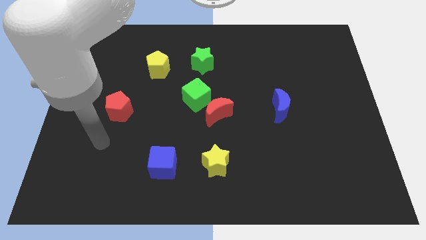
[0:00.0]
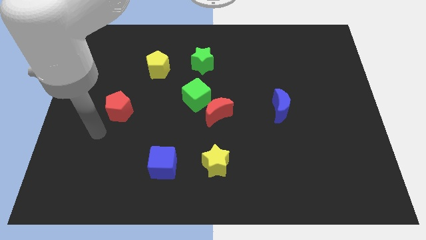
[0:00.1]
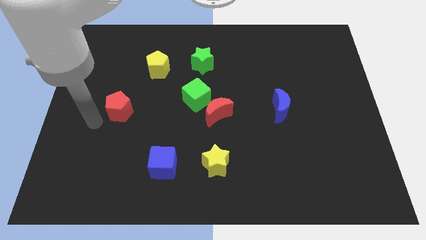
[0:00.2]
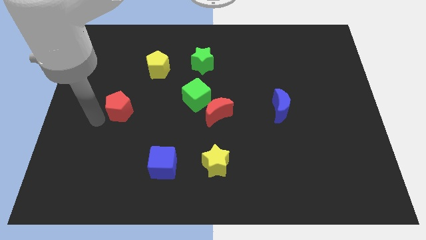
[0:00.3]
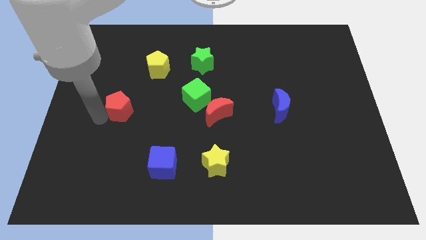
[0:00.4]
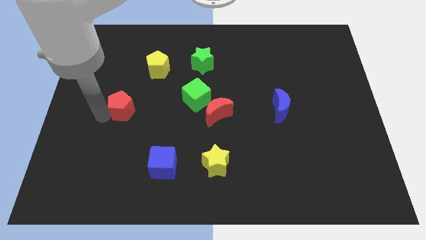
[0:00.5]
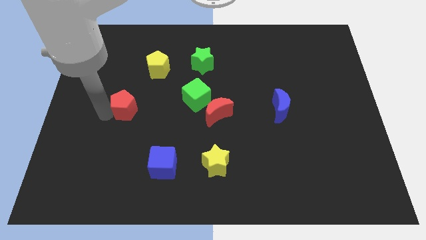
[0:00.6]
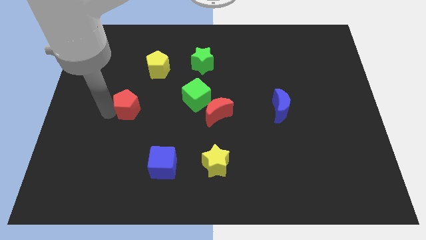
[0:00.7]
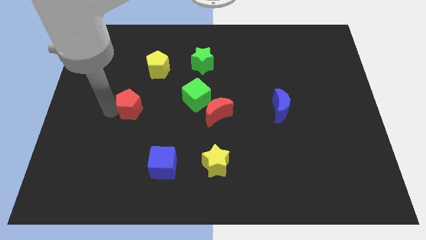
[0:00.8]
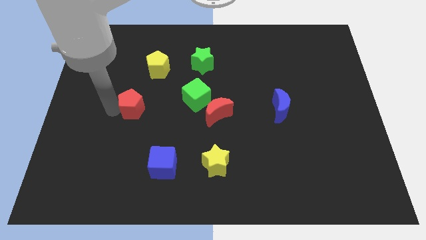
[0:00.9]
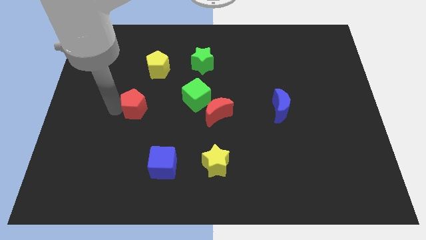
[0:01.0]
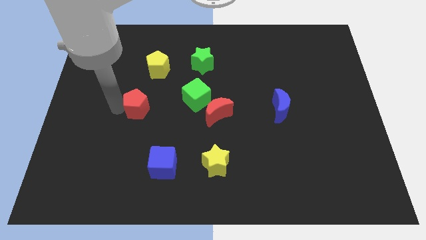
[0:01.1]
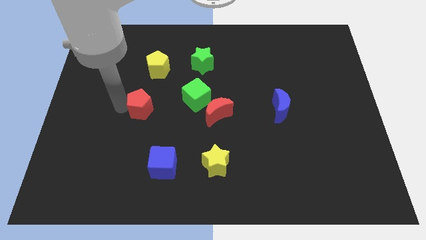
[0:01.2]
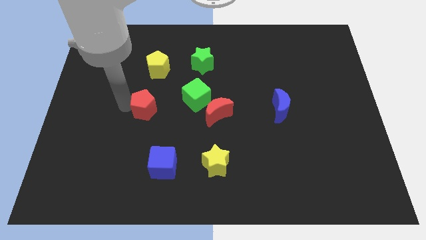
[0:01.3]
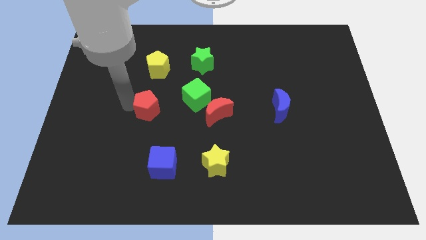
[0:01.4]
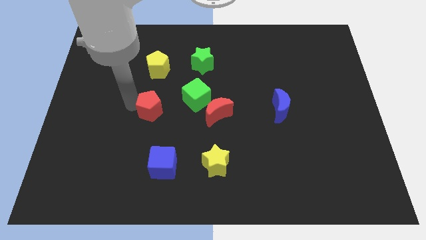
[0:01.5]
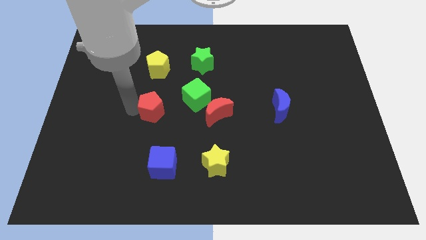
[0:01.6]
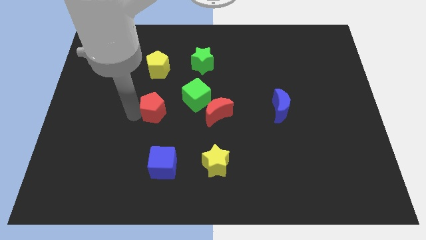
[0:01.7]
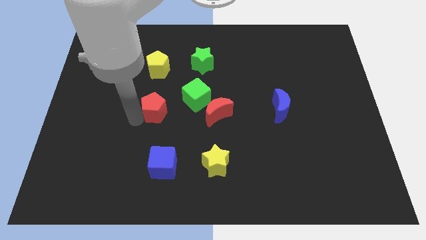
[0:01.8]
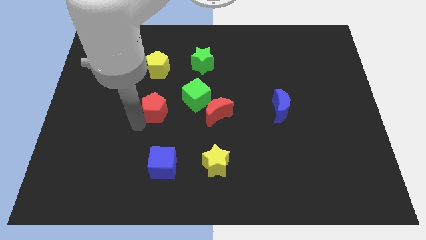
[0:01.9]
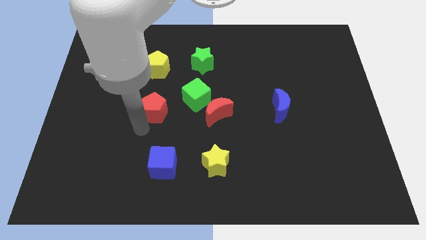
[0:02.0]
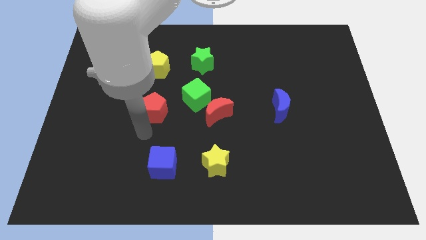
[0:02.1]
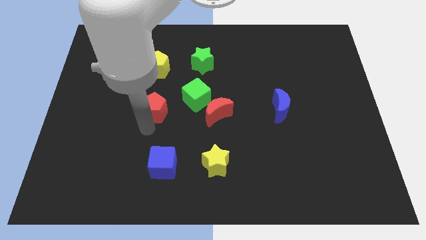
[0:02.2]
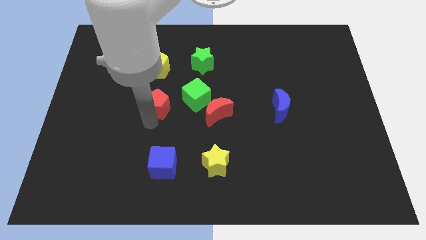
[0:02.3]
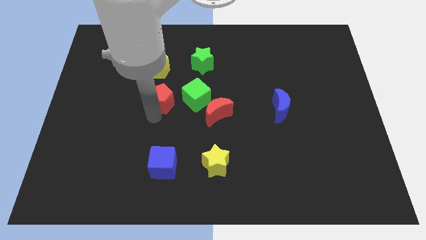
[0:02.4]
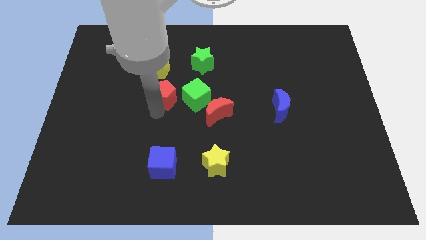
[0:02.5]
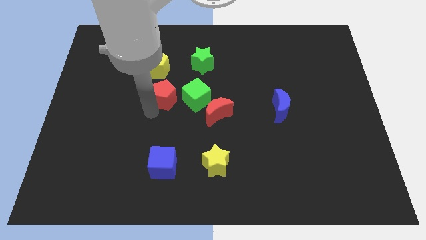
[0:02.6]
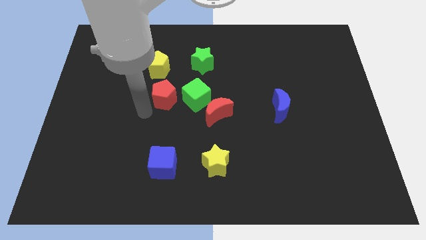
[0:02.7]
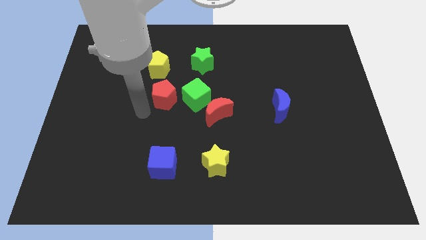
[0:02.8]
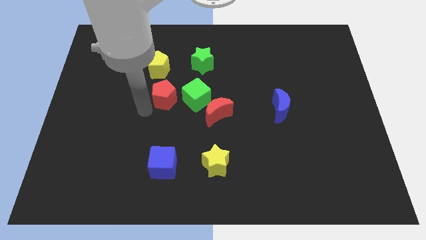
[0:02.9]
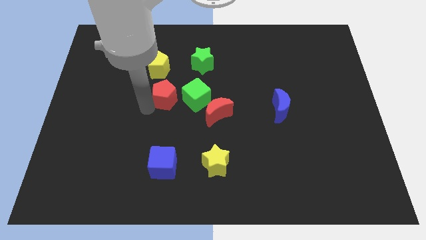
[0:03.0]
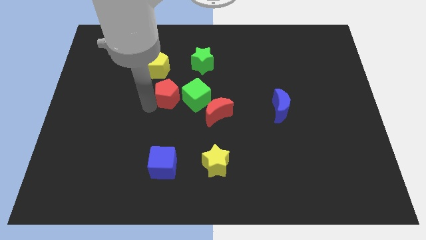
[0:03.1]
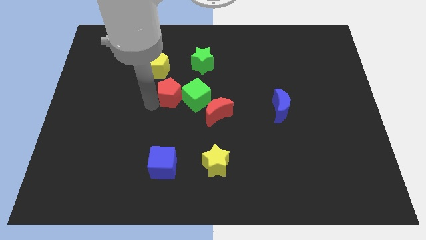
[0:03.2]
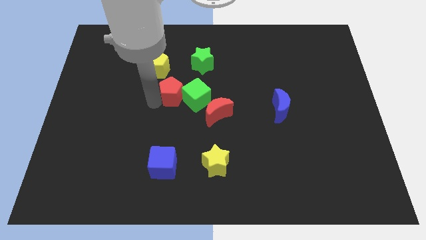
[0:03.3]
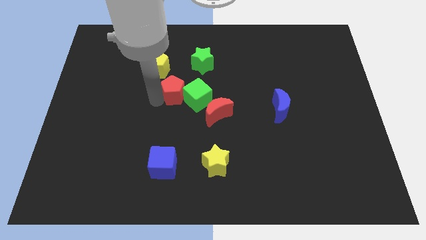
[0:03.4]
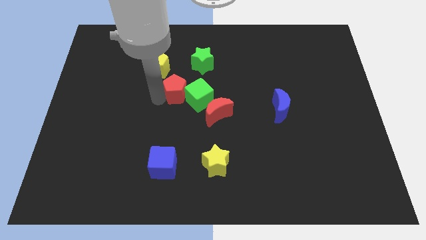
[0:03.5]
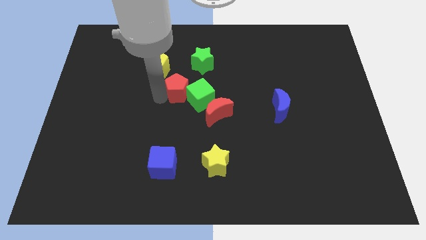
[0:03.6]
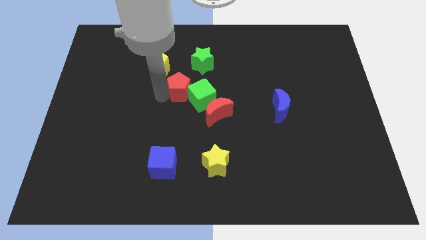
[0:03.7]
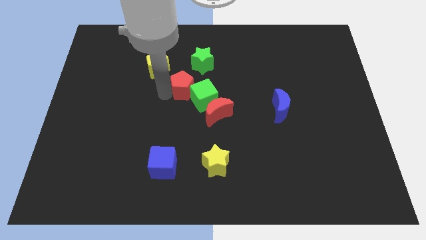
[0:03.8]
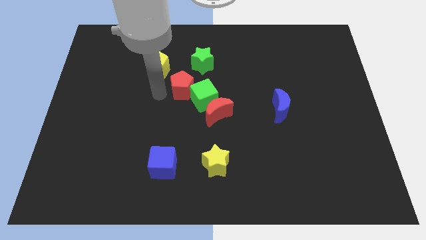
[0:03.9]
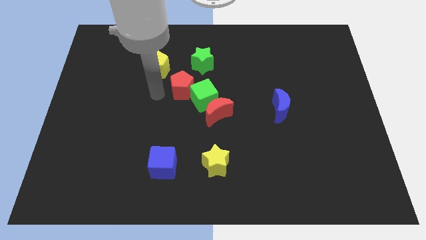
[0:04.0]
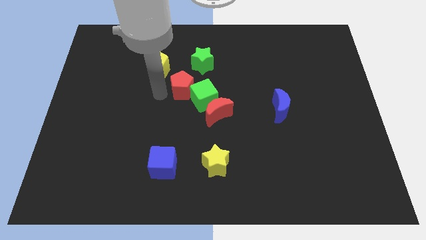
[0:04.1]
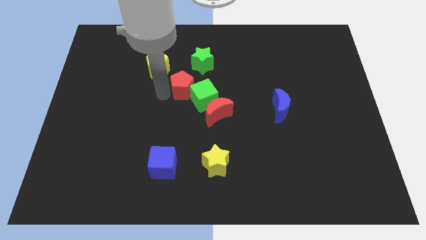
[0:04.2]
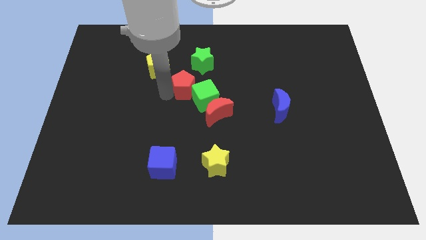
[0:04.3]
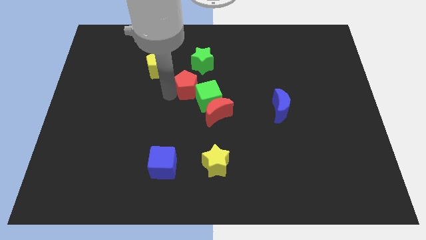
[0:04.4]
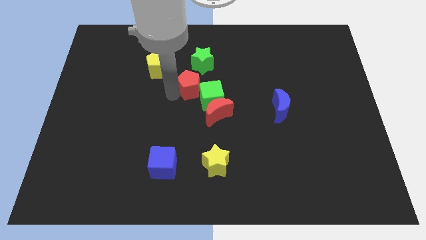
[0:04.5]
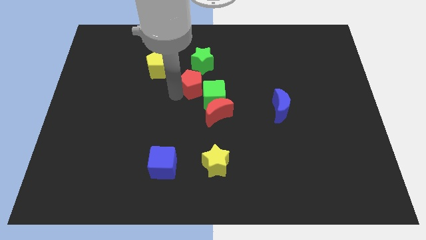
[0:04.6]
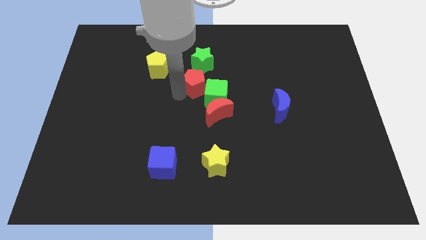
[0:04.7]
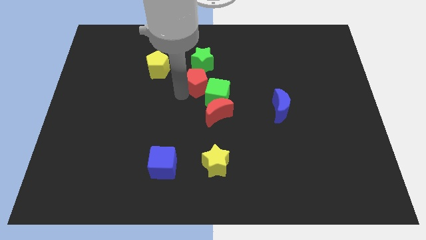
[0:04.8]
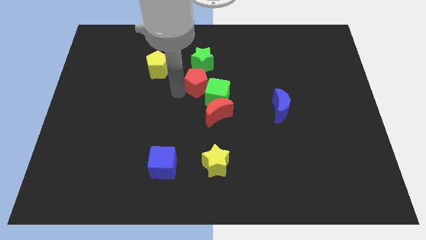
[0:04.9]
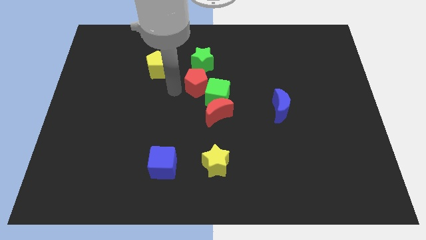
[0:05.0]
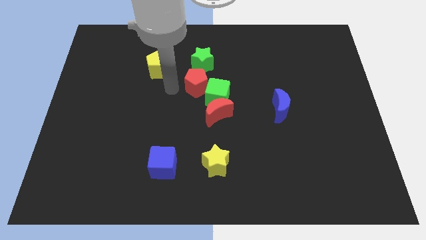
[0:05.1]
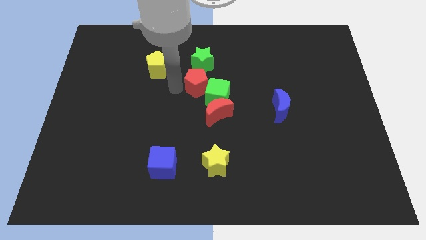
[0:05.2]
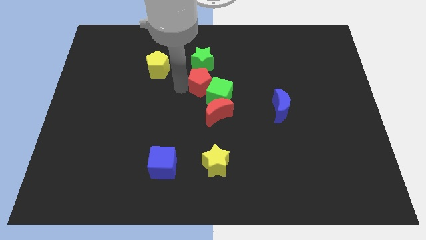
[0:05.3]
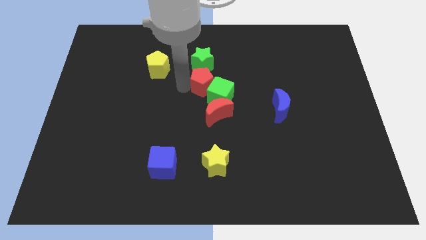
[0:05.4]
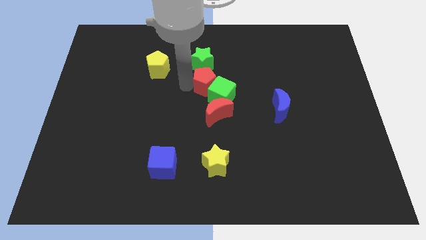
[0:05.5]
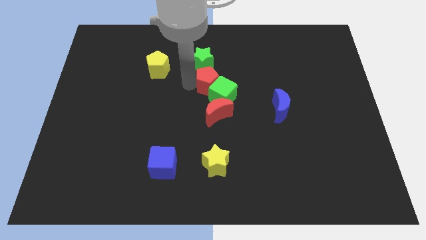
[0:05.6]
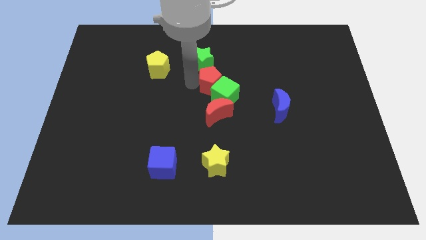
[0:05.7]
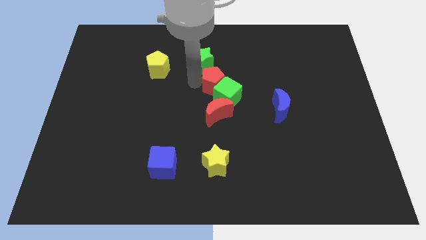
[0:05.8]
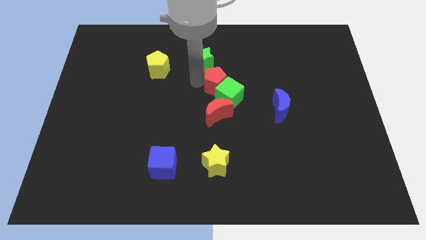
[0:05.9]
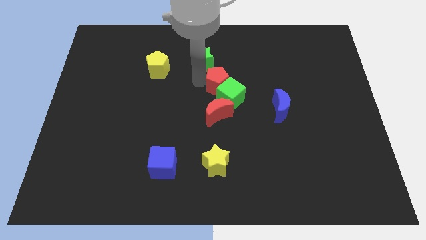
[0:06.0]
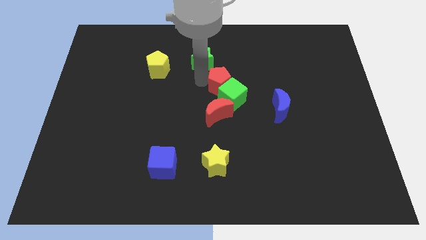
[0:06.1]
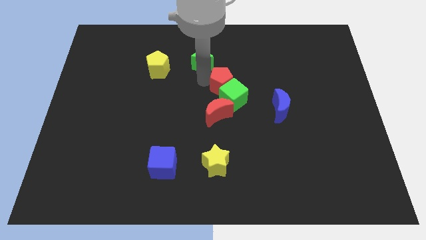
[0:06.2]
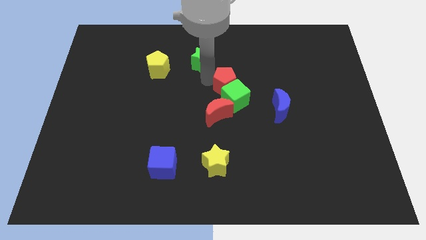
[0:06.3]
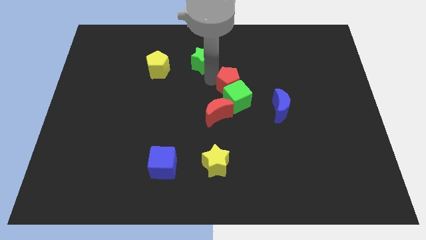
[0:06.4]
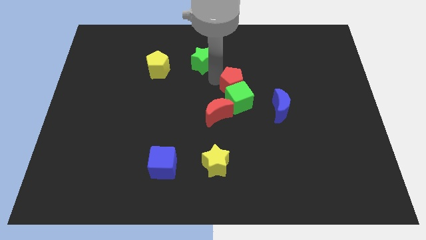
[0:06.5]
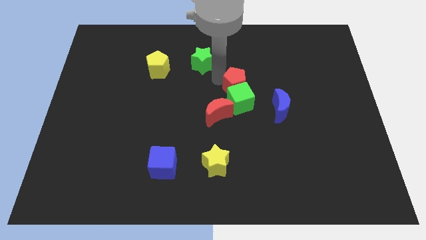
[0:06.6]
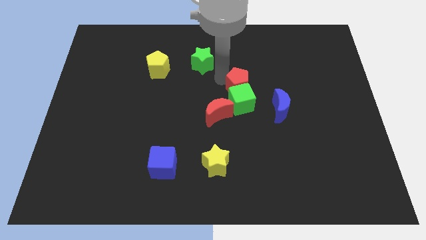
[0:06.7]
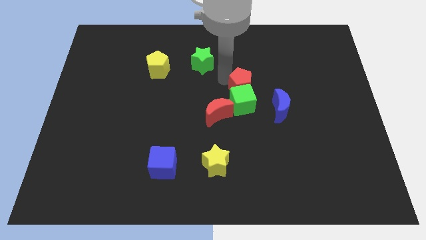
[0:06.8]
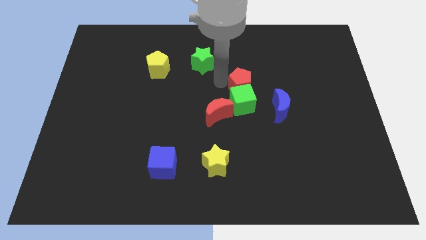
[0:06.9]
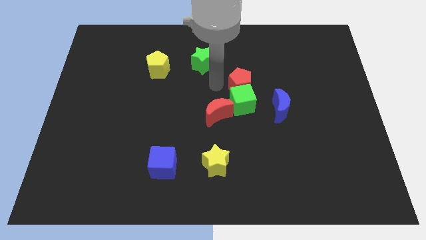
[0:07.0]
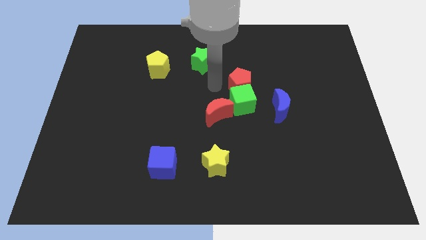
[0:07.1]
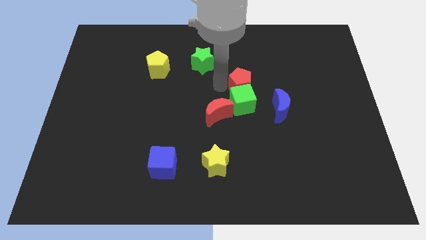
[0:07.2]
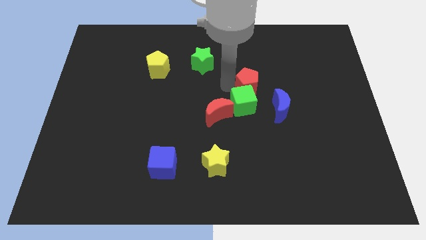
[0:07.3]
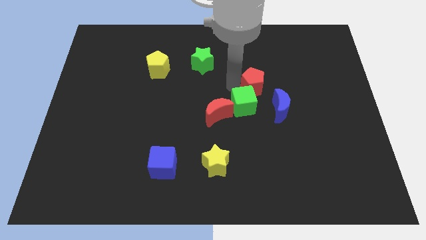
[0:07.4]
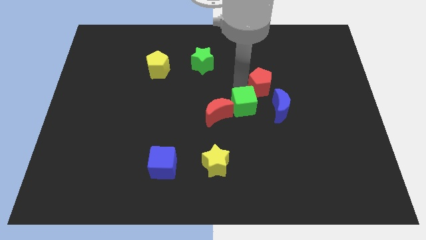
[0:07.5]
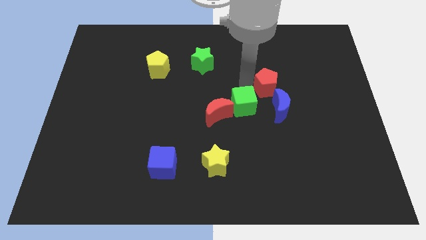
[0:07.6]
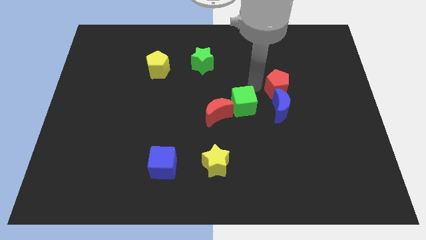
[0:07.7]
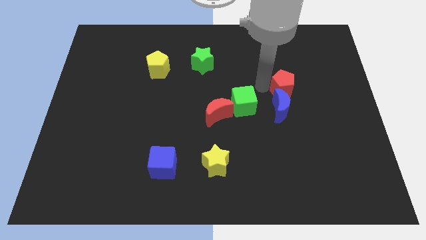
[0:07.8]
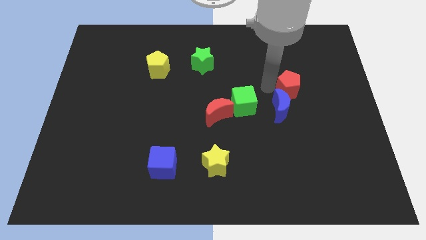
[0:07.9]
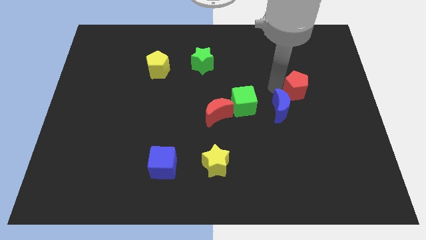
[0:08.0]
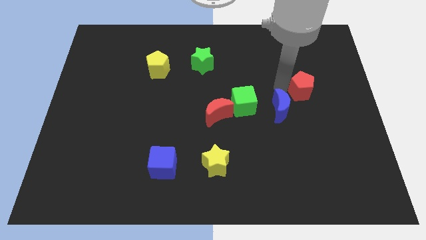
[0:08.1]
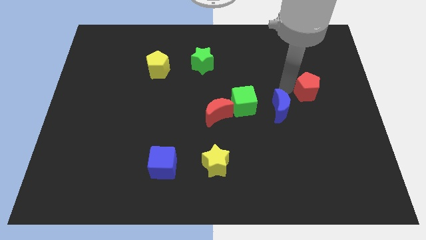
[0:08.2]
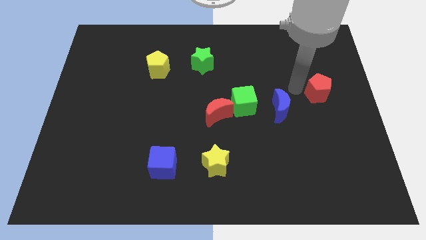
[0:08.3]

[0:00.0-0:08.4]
push the red pentagon to the center right
